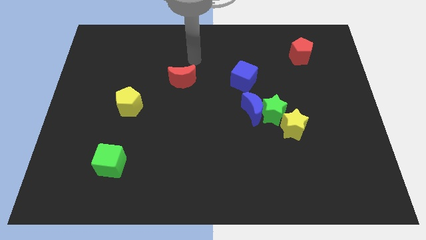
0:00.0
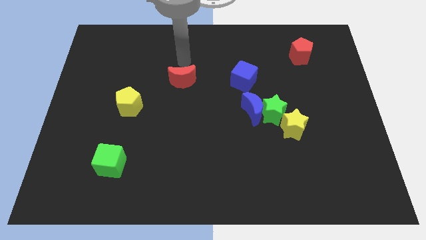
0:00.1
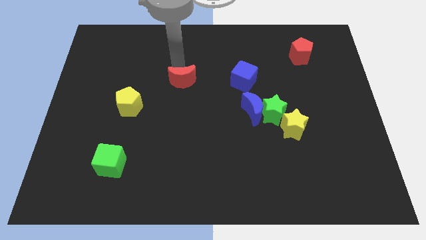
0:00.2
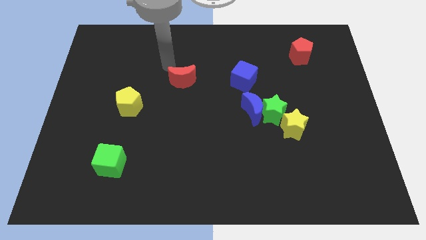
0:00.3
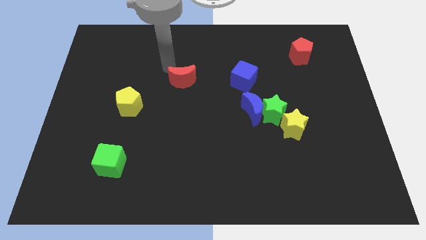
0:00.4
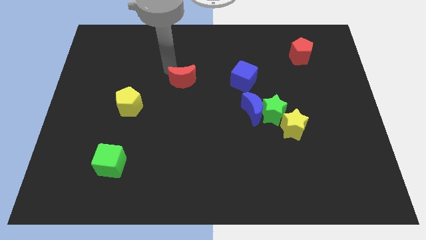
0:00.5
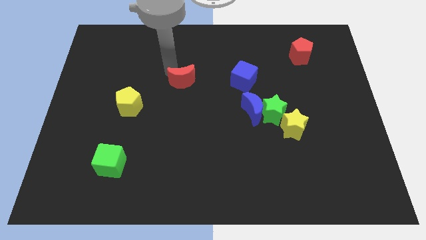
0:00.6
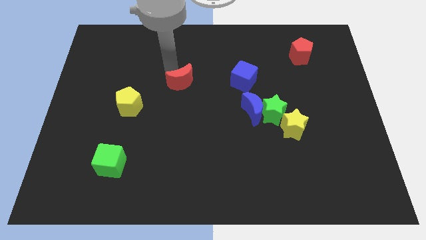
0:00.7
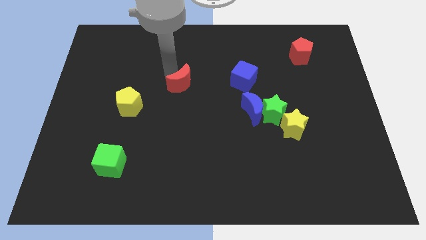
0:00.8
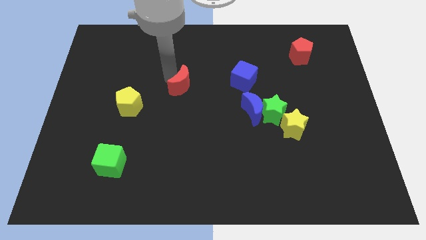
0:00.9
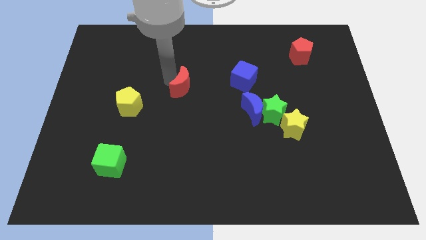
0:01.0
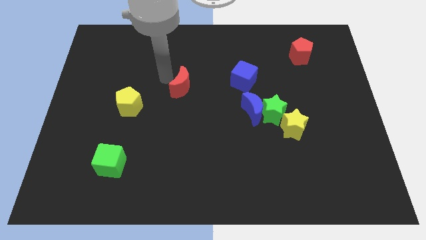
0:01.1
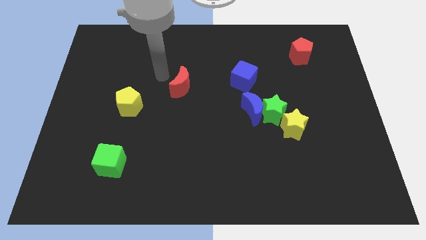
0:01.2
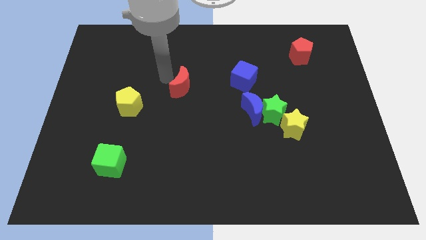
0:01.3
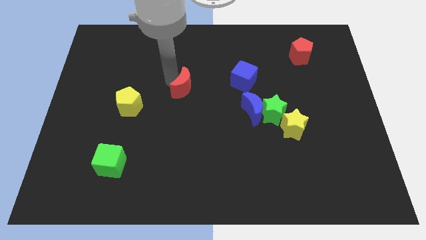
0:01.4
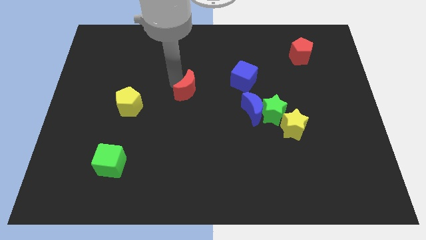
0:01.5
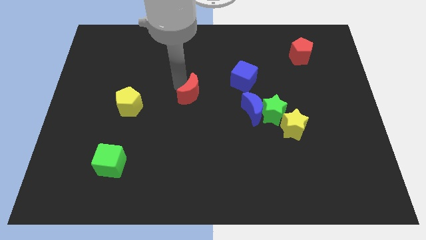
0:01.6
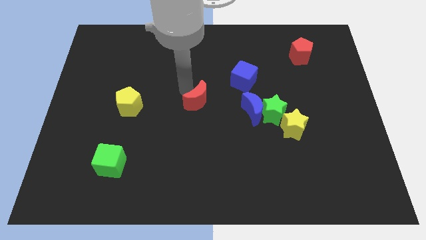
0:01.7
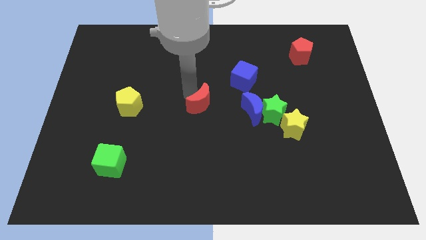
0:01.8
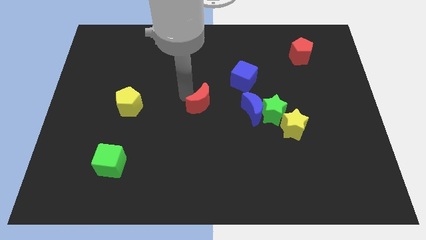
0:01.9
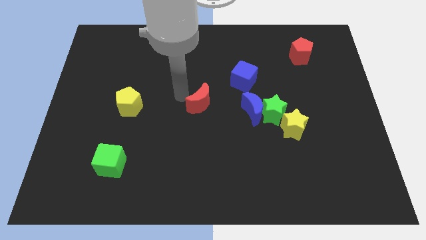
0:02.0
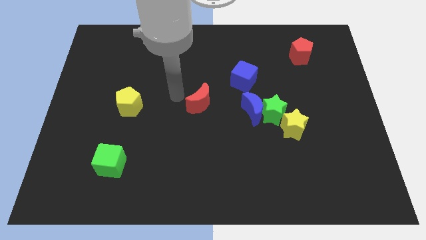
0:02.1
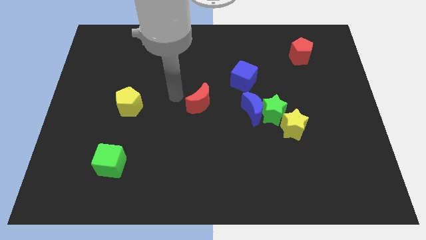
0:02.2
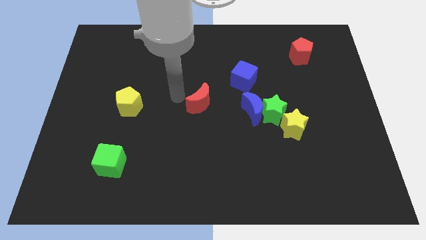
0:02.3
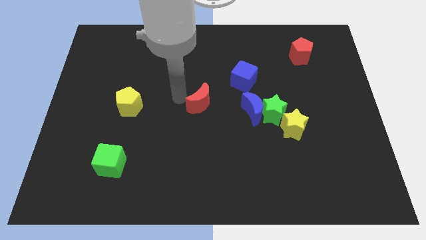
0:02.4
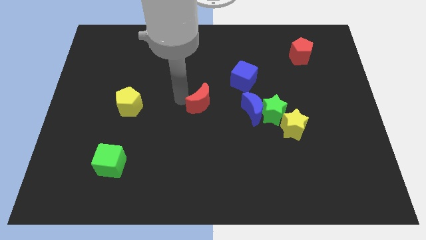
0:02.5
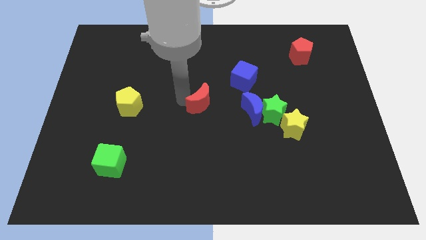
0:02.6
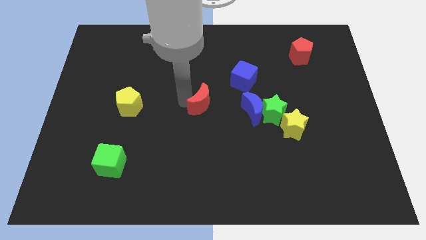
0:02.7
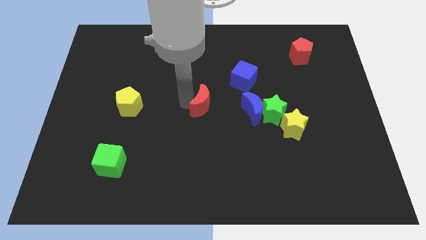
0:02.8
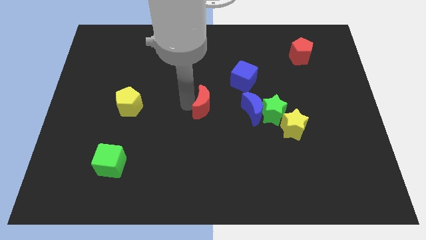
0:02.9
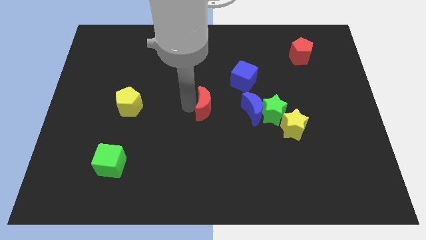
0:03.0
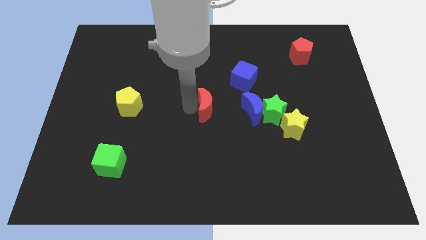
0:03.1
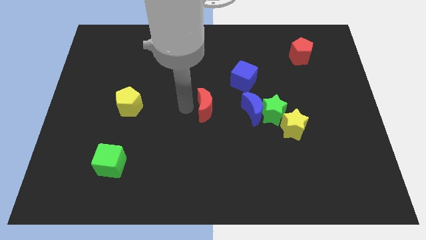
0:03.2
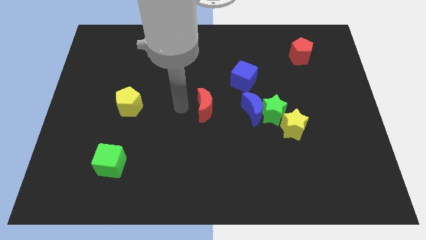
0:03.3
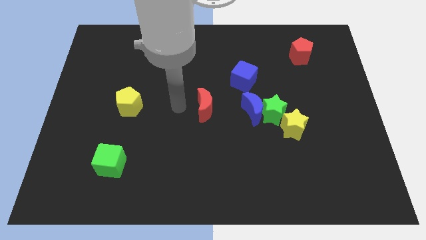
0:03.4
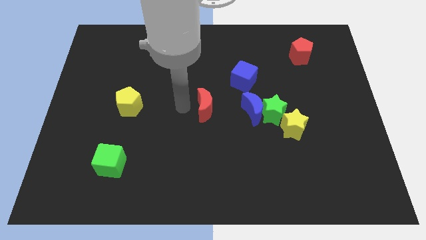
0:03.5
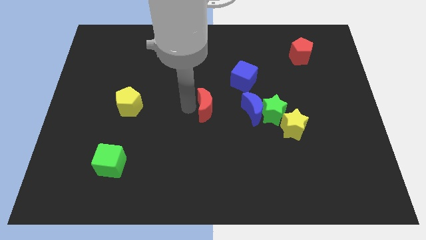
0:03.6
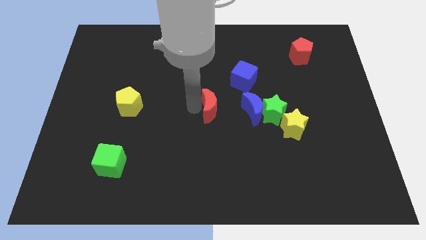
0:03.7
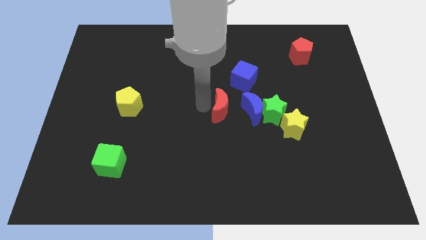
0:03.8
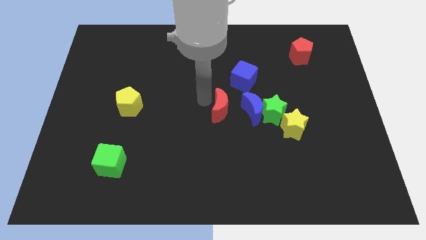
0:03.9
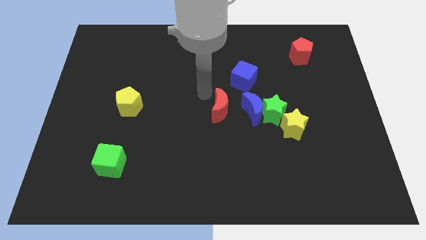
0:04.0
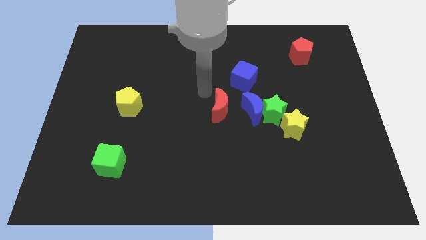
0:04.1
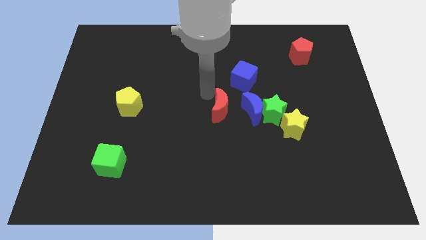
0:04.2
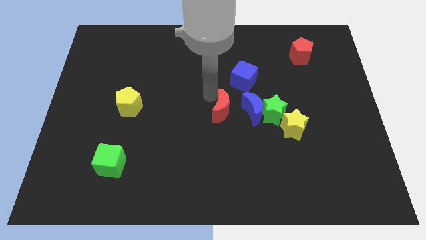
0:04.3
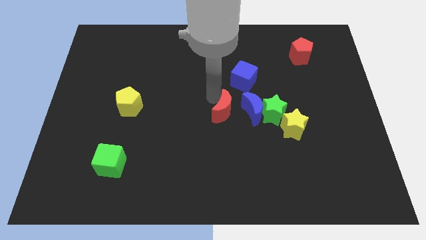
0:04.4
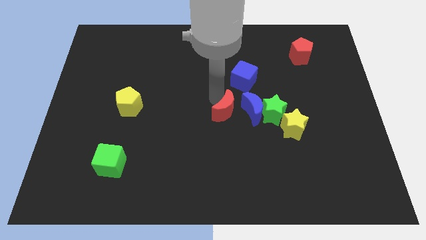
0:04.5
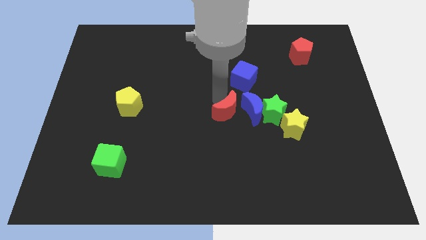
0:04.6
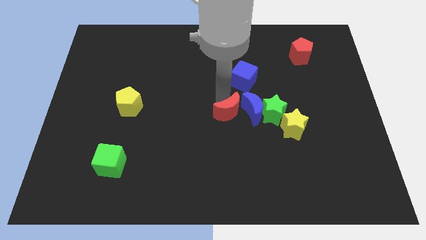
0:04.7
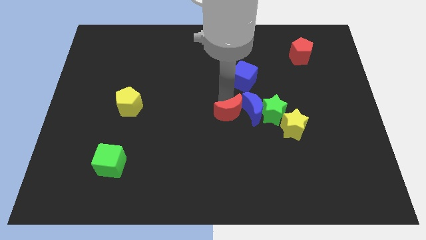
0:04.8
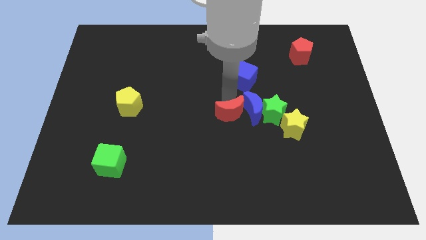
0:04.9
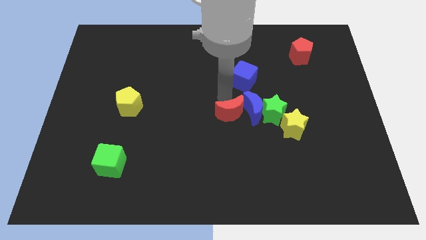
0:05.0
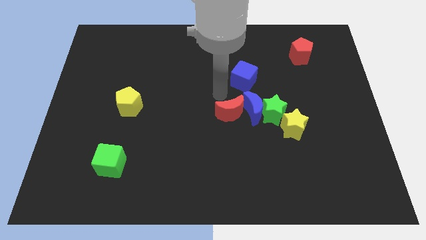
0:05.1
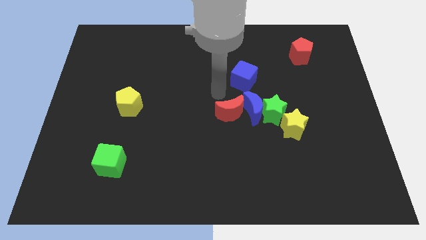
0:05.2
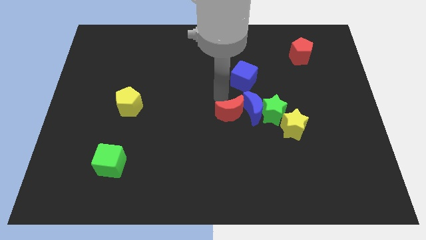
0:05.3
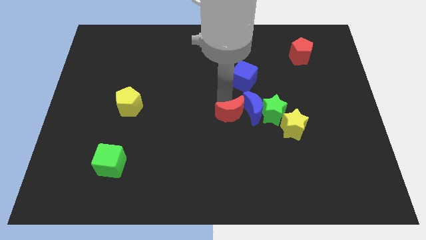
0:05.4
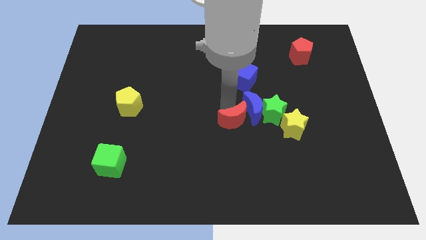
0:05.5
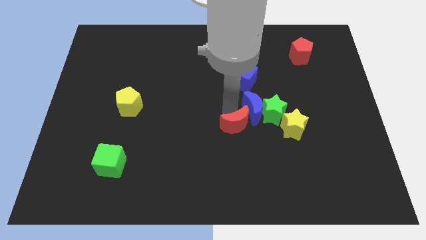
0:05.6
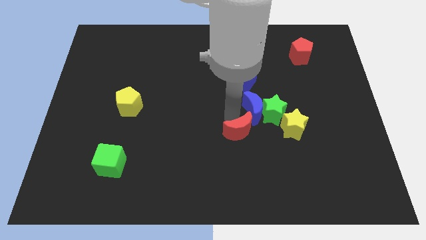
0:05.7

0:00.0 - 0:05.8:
push the red moon diagonally downwards and right

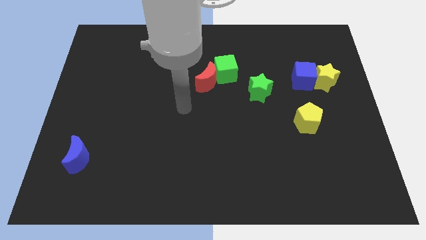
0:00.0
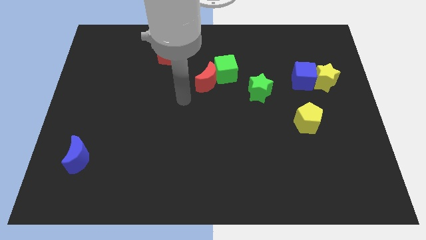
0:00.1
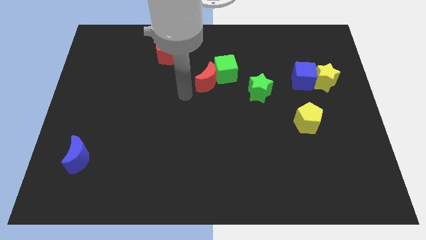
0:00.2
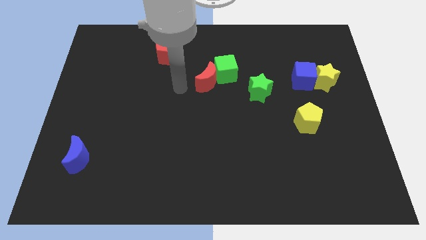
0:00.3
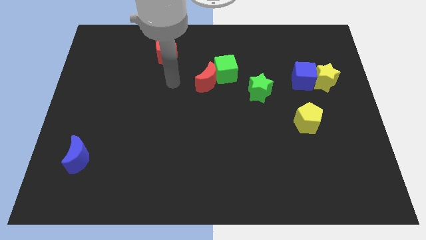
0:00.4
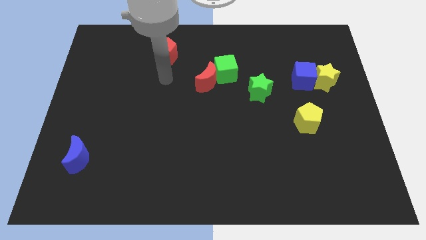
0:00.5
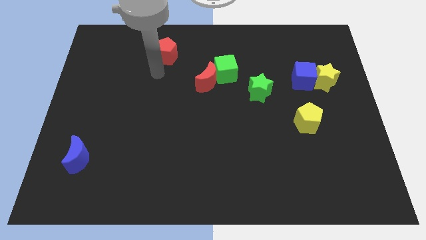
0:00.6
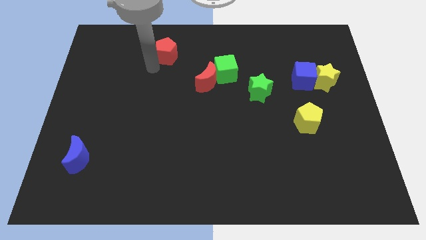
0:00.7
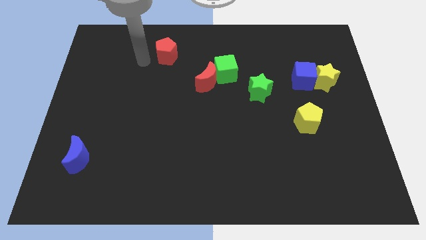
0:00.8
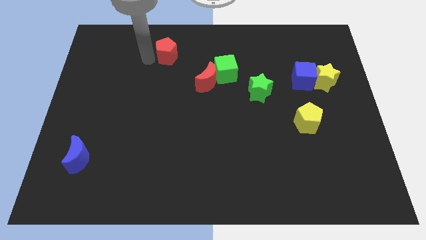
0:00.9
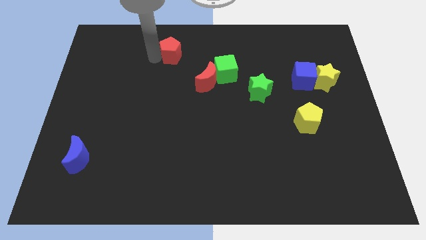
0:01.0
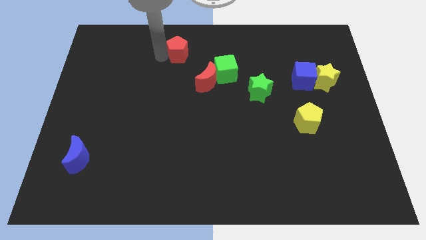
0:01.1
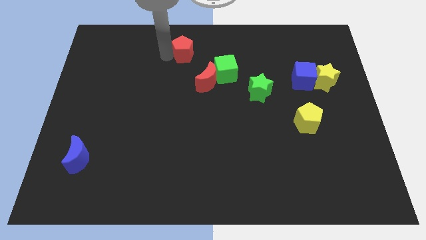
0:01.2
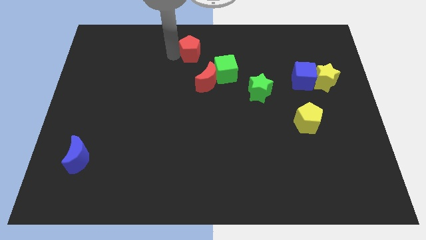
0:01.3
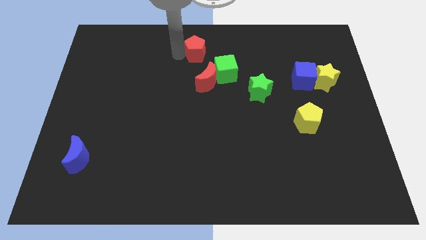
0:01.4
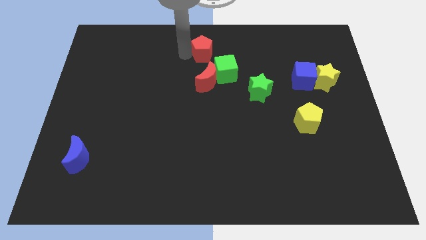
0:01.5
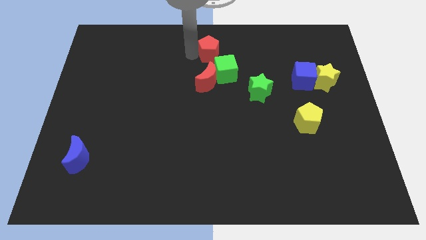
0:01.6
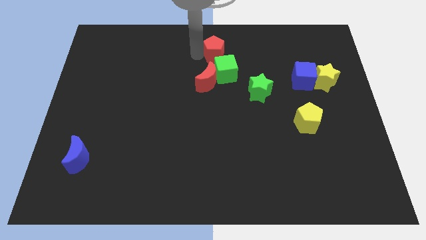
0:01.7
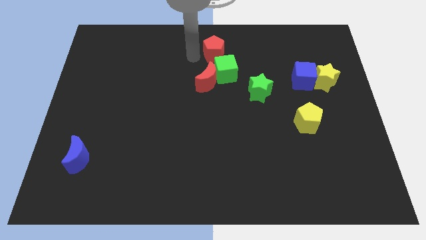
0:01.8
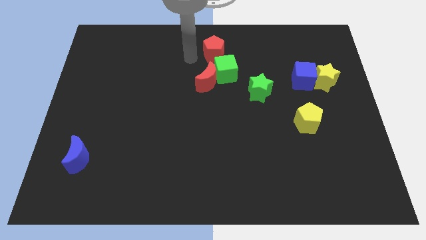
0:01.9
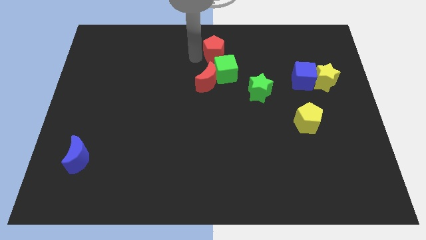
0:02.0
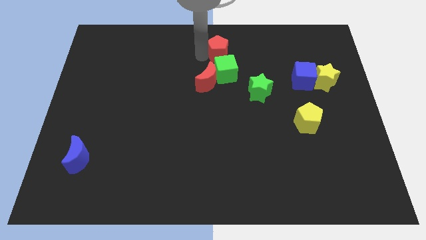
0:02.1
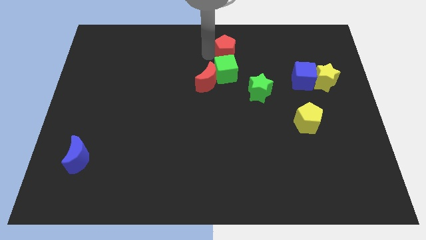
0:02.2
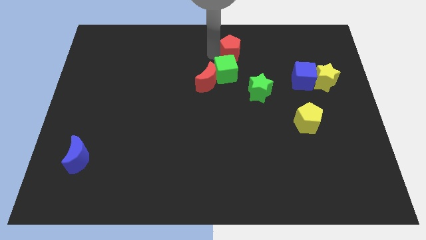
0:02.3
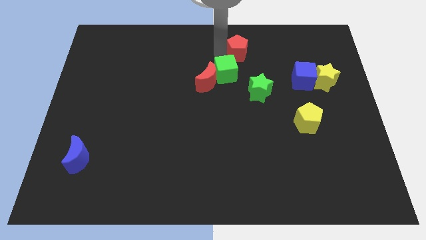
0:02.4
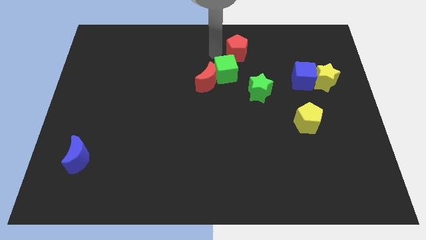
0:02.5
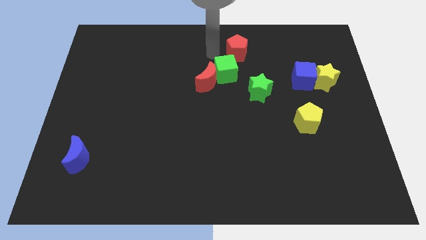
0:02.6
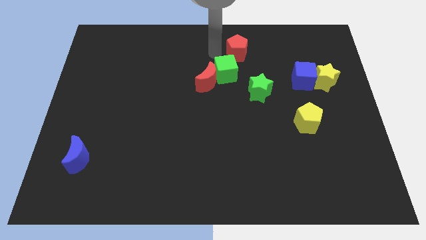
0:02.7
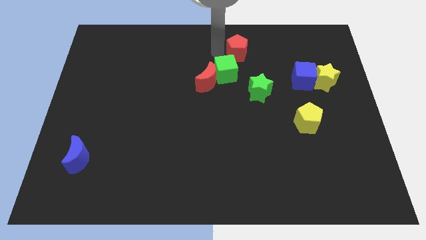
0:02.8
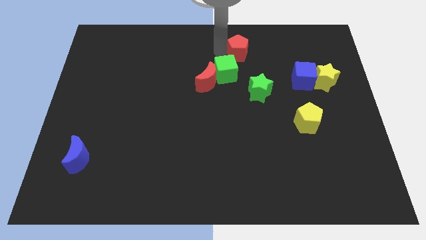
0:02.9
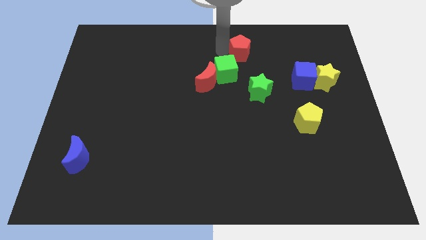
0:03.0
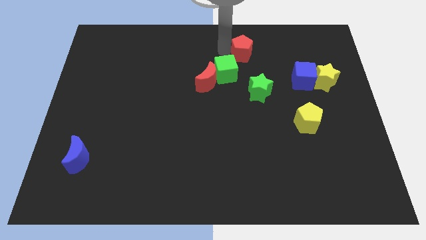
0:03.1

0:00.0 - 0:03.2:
push the red pentagon right
